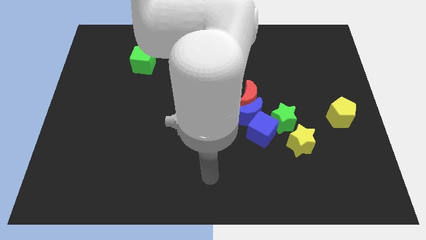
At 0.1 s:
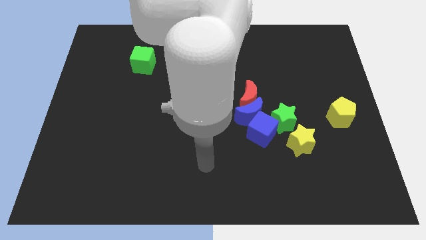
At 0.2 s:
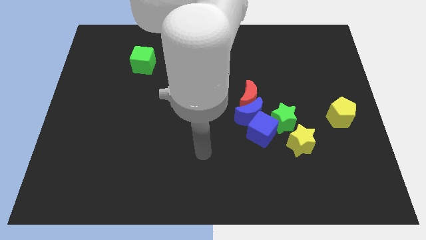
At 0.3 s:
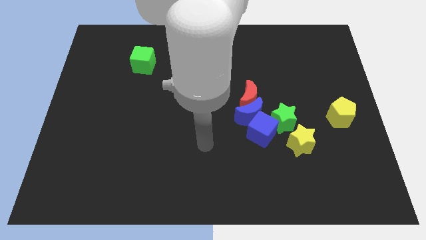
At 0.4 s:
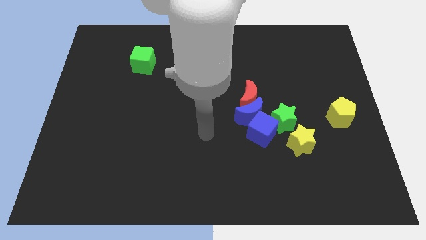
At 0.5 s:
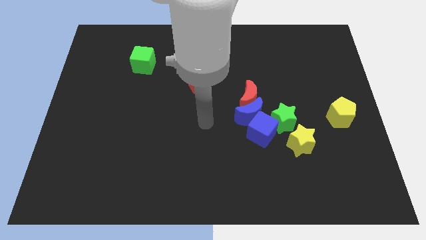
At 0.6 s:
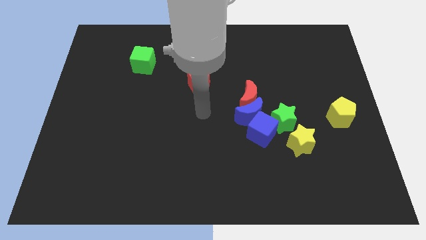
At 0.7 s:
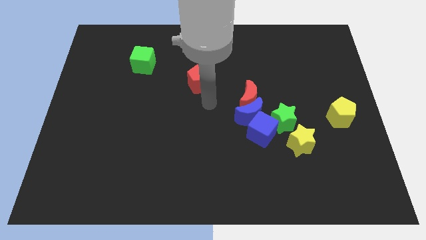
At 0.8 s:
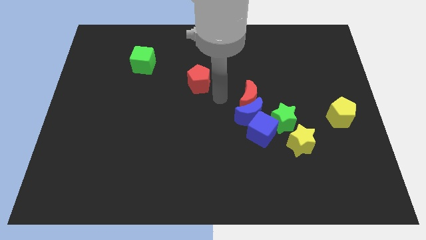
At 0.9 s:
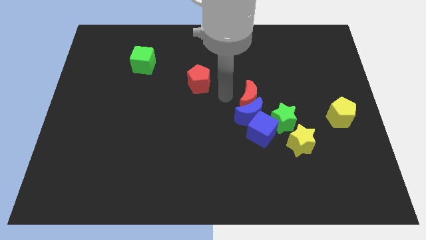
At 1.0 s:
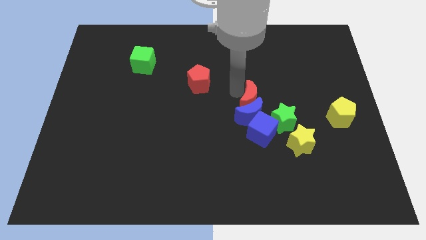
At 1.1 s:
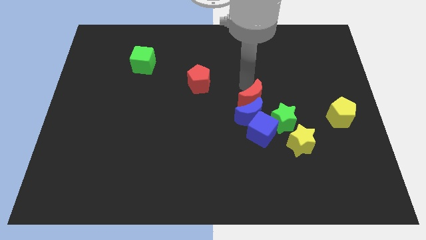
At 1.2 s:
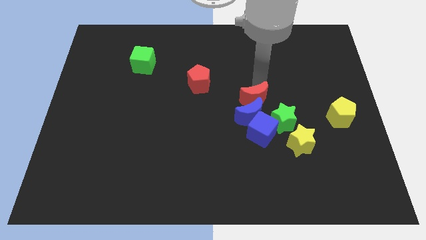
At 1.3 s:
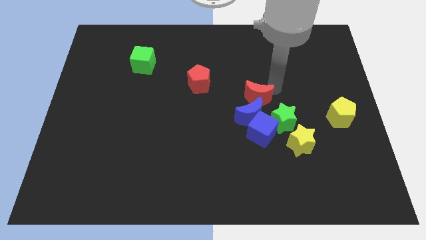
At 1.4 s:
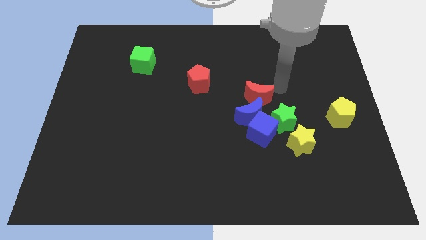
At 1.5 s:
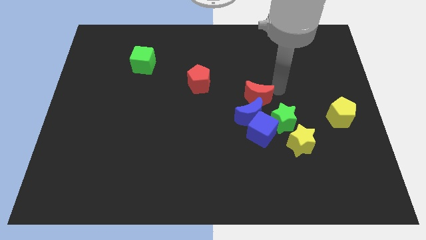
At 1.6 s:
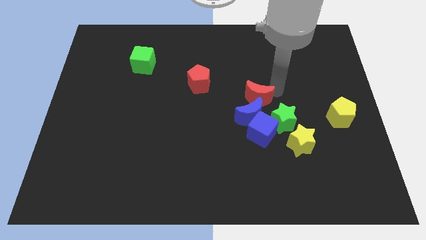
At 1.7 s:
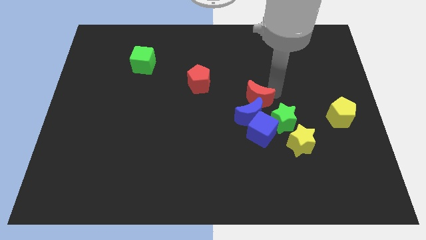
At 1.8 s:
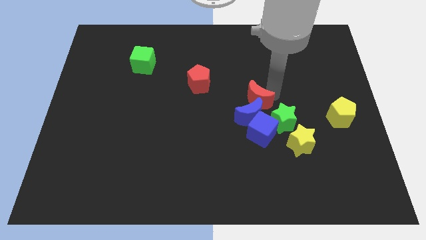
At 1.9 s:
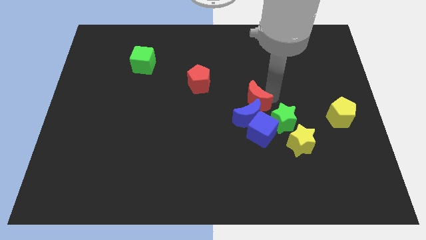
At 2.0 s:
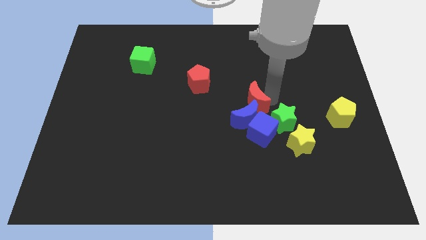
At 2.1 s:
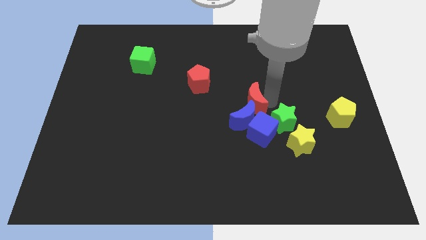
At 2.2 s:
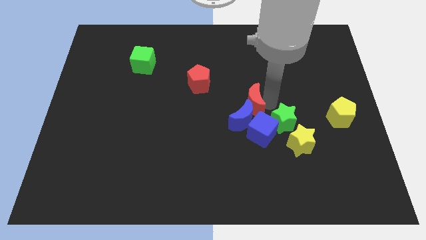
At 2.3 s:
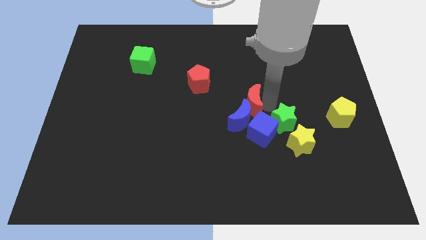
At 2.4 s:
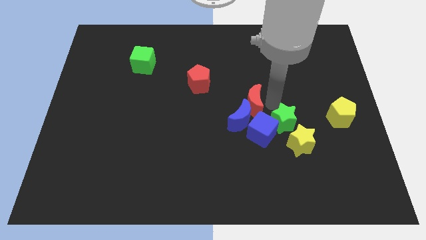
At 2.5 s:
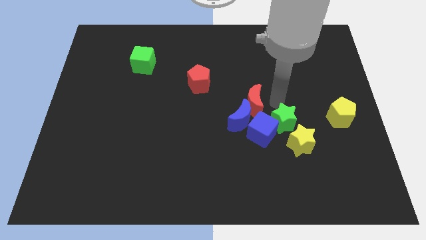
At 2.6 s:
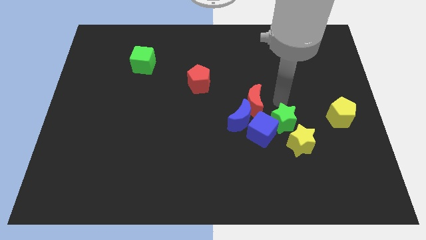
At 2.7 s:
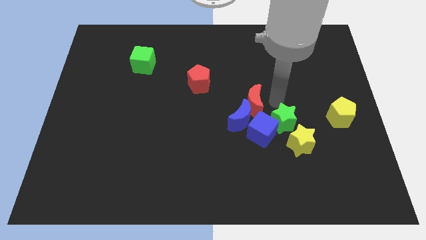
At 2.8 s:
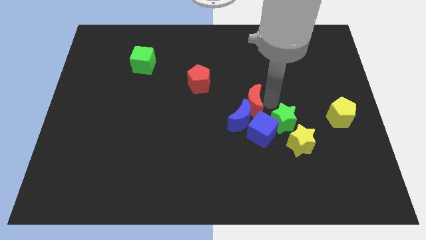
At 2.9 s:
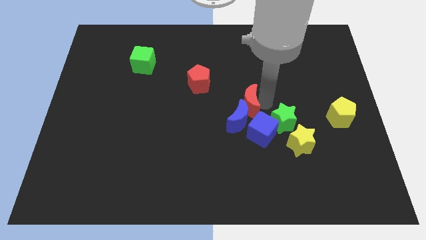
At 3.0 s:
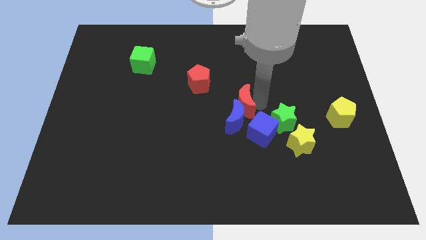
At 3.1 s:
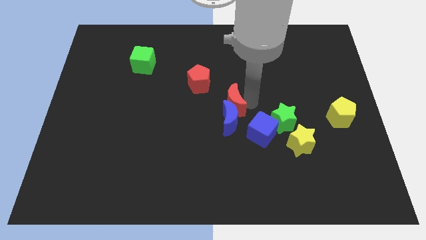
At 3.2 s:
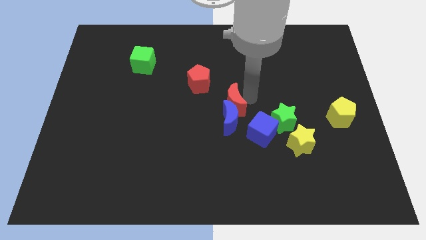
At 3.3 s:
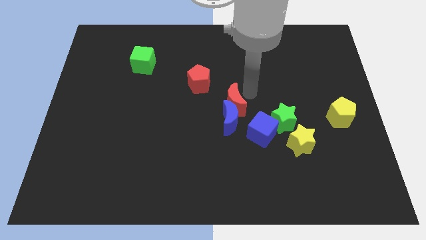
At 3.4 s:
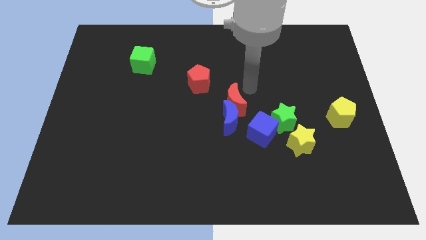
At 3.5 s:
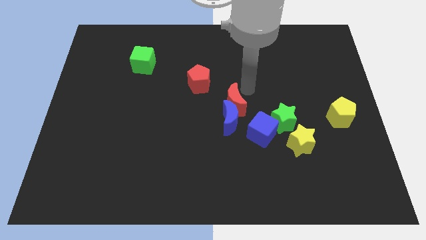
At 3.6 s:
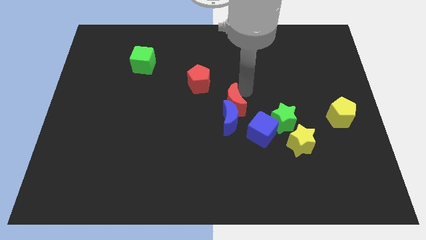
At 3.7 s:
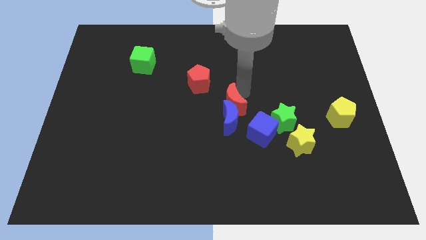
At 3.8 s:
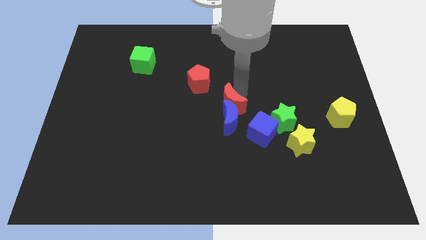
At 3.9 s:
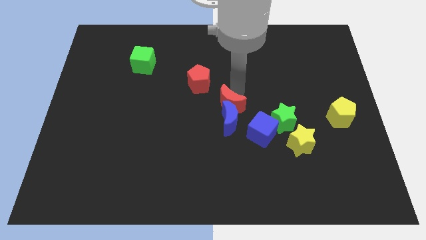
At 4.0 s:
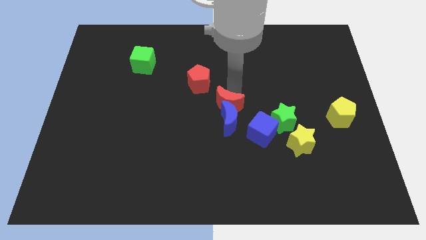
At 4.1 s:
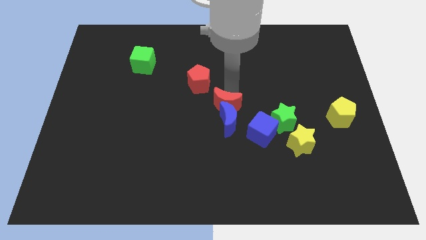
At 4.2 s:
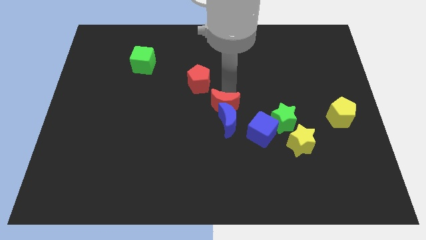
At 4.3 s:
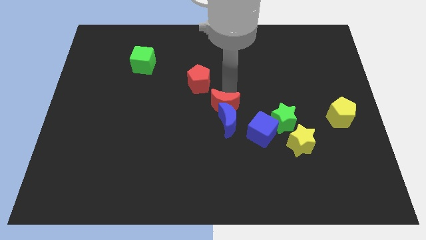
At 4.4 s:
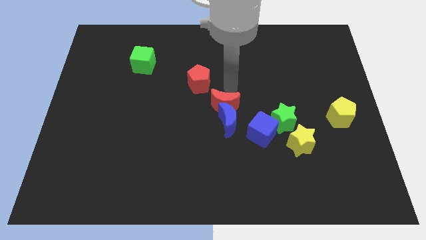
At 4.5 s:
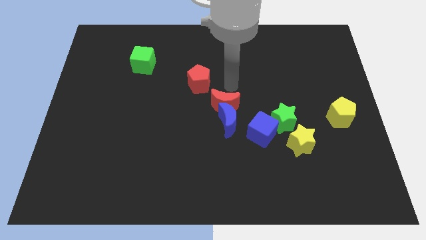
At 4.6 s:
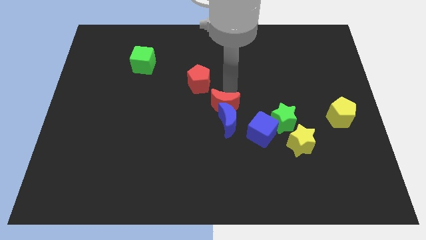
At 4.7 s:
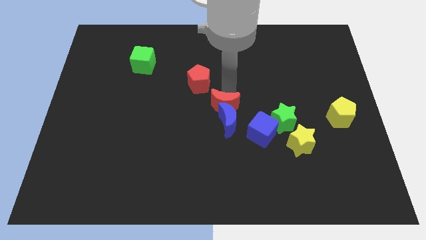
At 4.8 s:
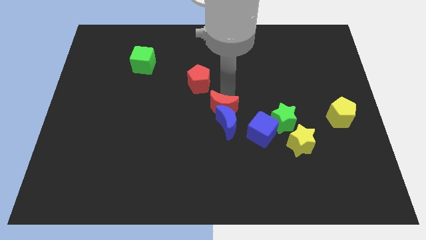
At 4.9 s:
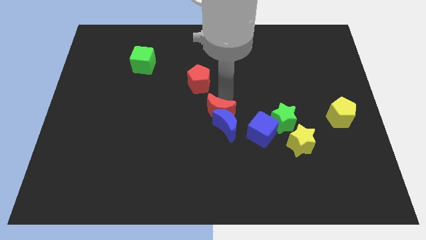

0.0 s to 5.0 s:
move the red moon downwards and left diagonally a bit

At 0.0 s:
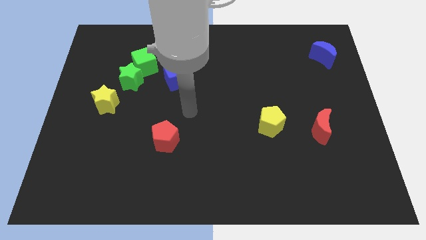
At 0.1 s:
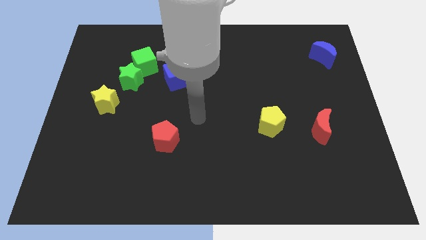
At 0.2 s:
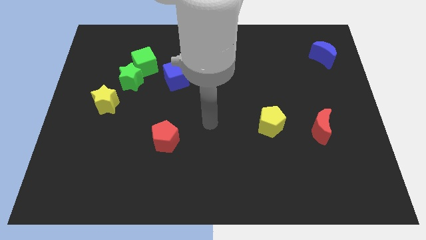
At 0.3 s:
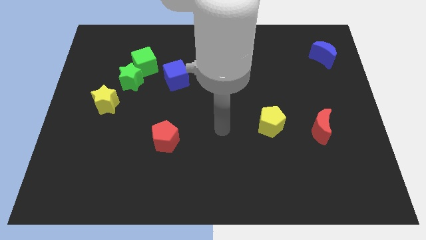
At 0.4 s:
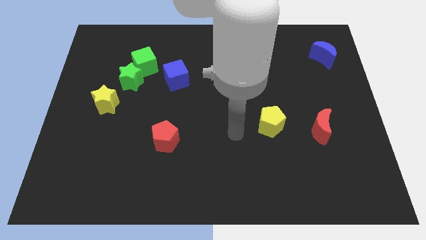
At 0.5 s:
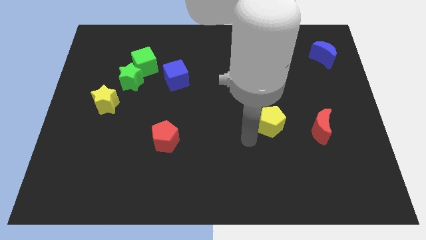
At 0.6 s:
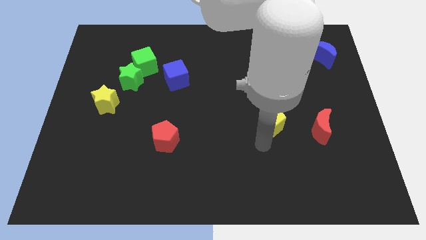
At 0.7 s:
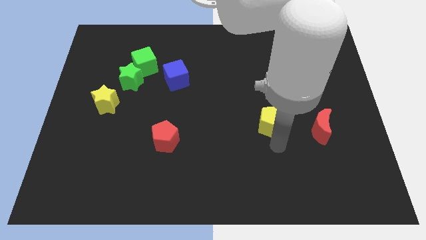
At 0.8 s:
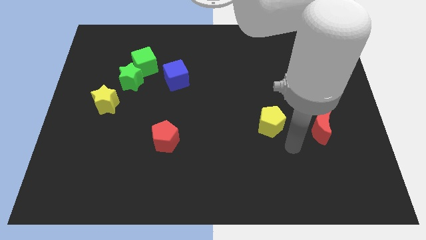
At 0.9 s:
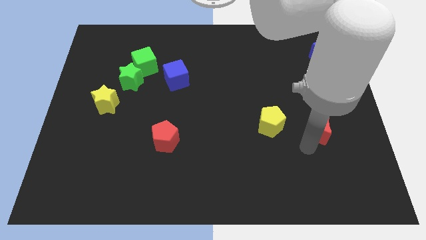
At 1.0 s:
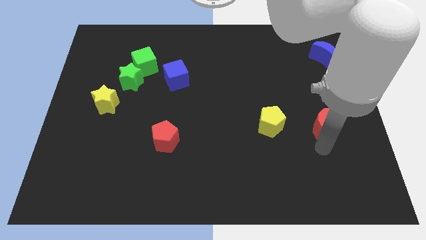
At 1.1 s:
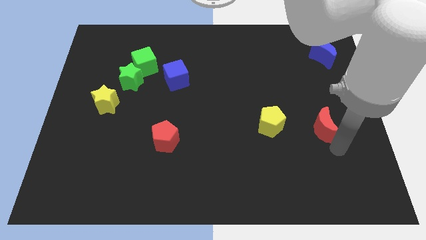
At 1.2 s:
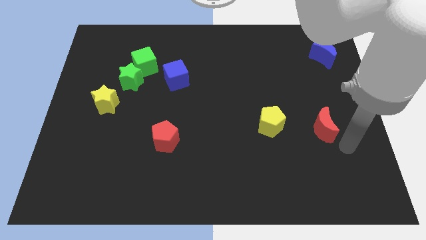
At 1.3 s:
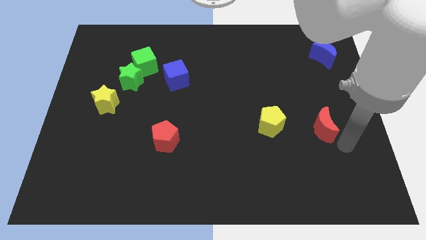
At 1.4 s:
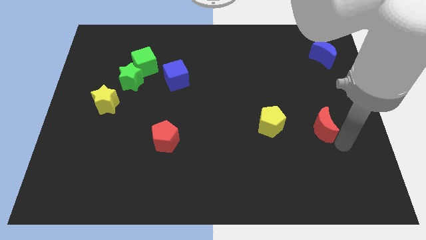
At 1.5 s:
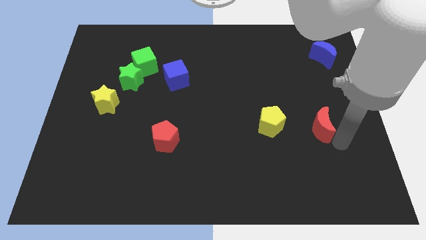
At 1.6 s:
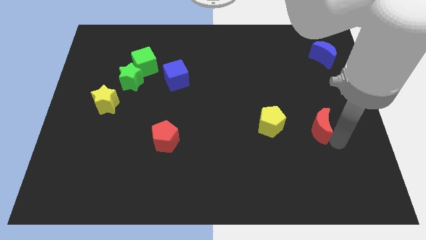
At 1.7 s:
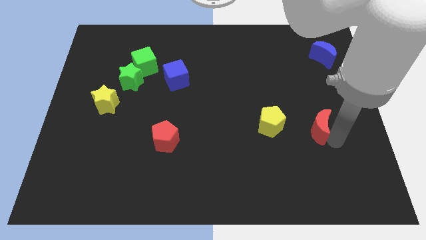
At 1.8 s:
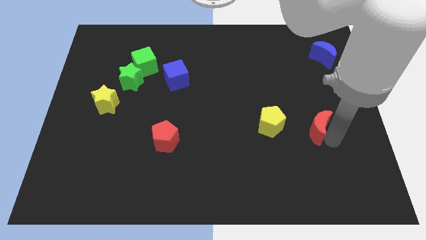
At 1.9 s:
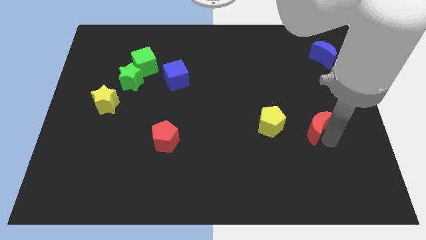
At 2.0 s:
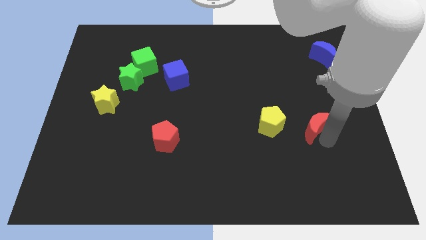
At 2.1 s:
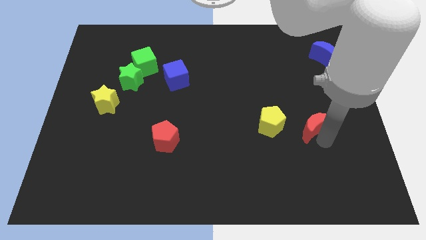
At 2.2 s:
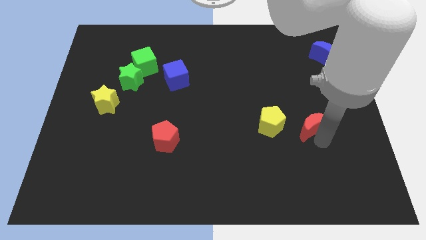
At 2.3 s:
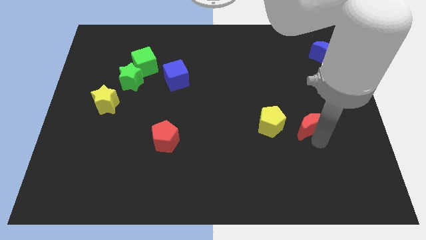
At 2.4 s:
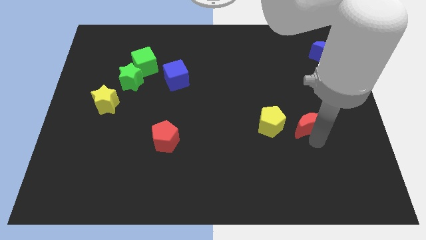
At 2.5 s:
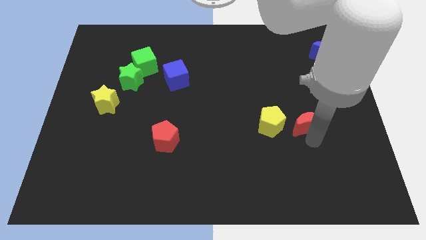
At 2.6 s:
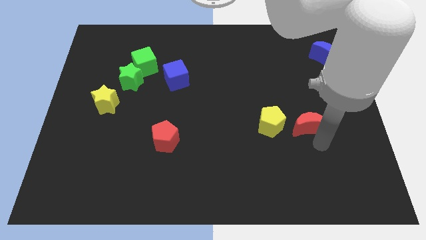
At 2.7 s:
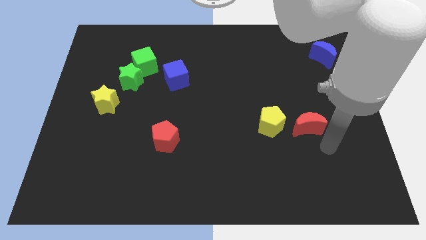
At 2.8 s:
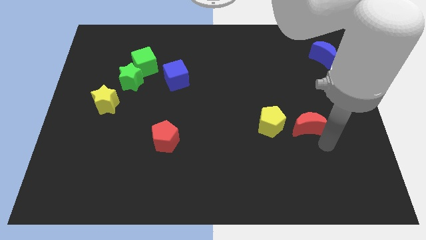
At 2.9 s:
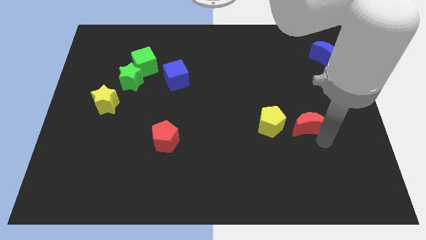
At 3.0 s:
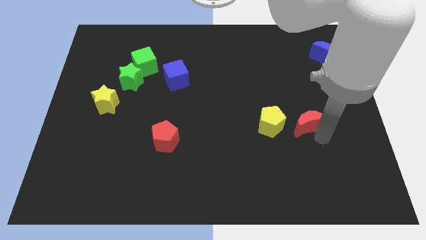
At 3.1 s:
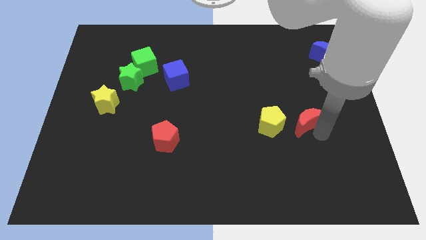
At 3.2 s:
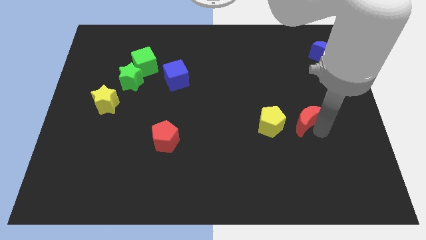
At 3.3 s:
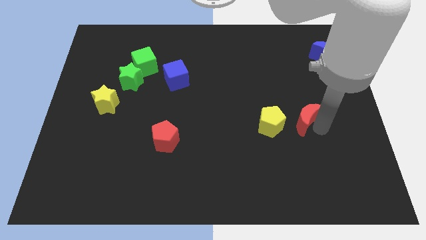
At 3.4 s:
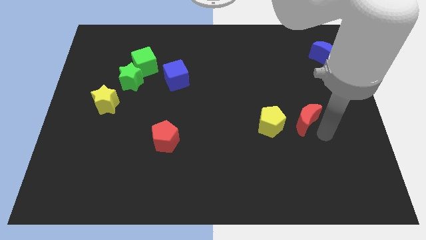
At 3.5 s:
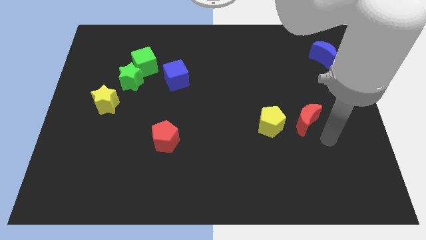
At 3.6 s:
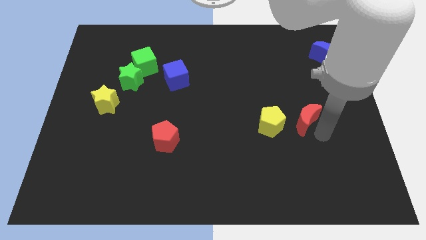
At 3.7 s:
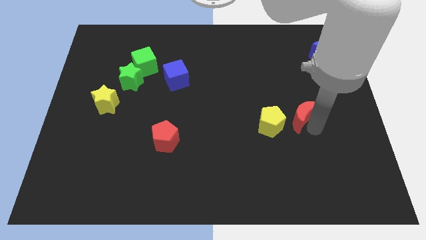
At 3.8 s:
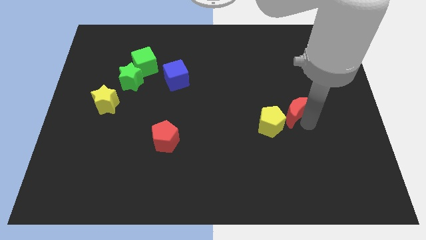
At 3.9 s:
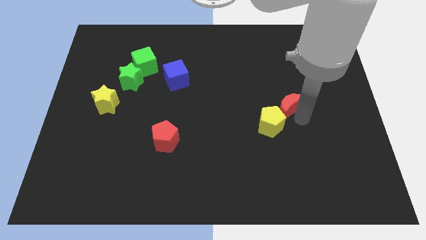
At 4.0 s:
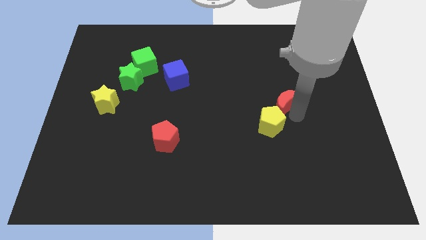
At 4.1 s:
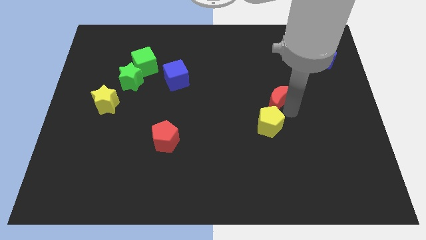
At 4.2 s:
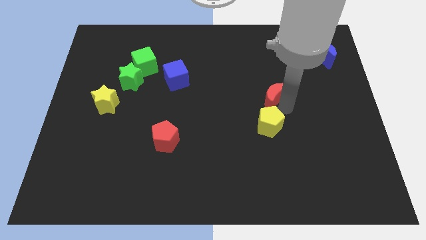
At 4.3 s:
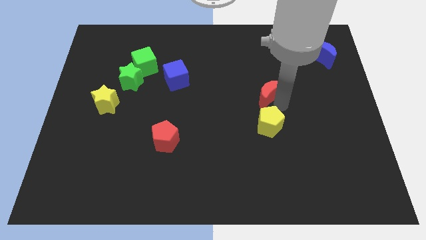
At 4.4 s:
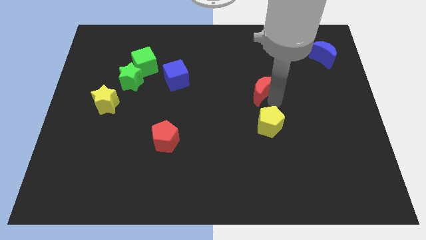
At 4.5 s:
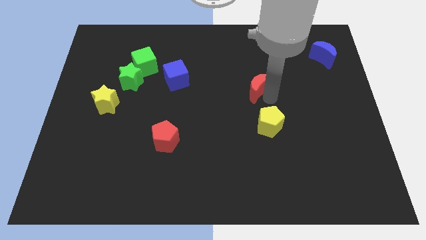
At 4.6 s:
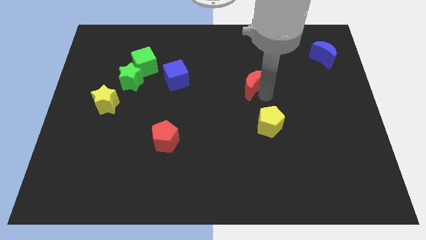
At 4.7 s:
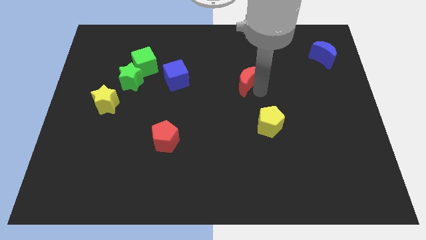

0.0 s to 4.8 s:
push the red moon upwards and then left
